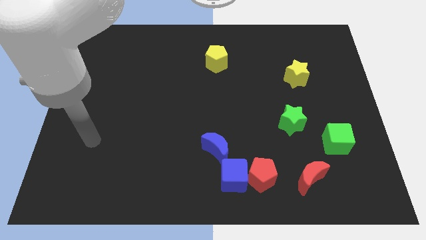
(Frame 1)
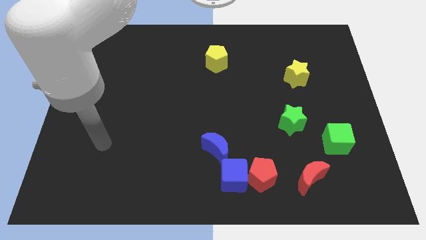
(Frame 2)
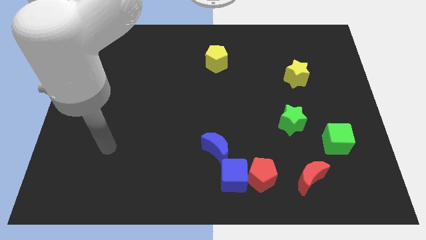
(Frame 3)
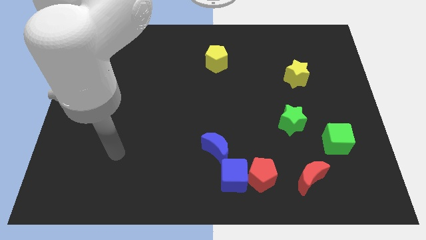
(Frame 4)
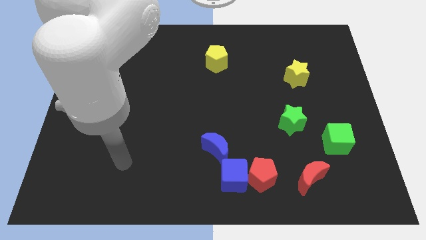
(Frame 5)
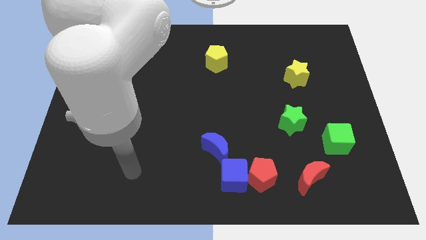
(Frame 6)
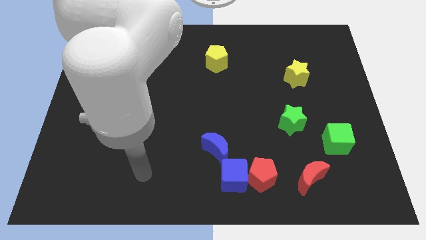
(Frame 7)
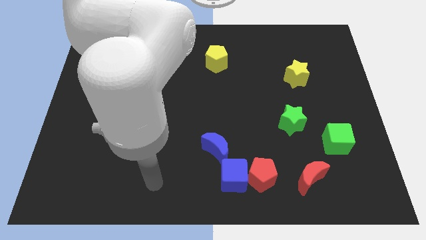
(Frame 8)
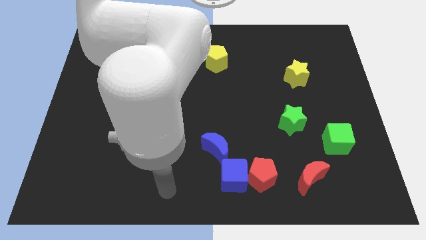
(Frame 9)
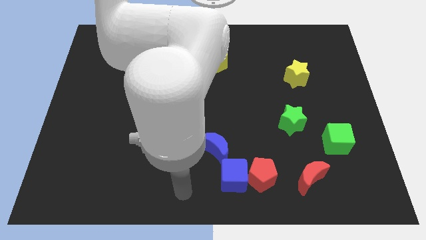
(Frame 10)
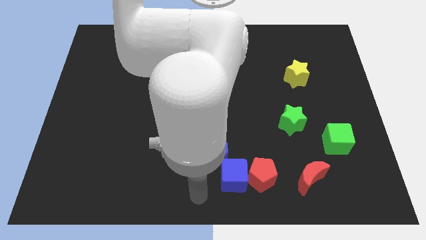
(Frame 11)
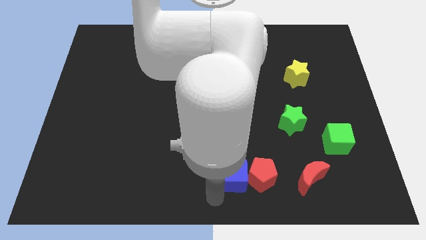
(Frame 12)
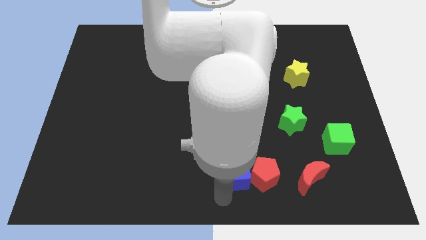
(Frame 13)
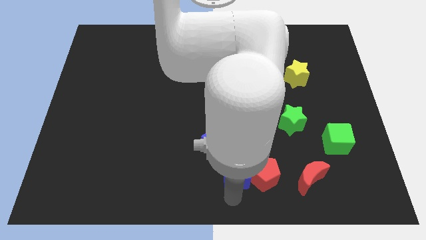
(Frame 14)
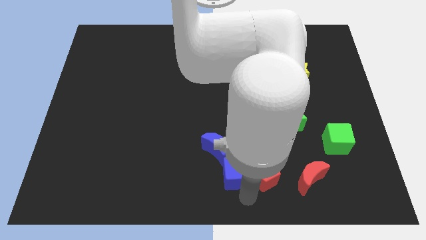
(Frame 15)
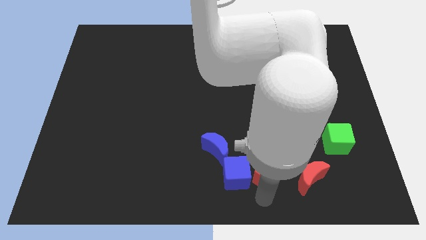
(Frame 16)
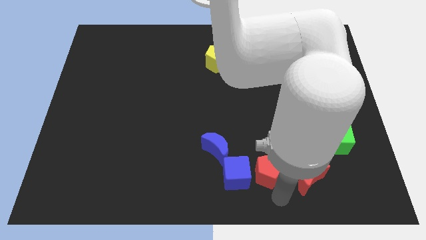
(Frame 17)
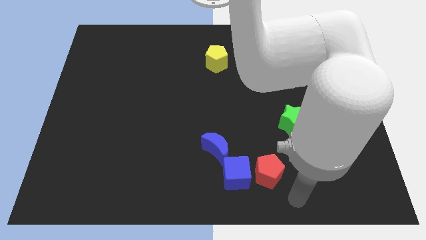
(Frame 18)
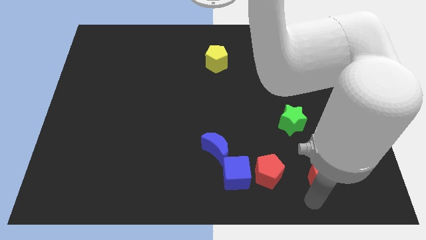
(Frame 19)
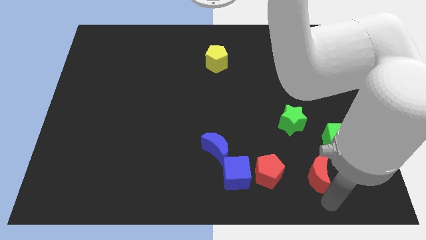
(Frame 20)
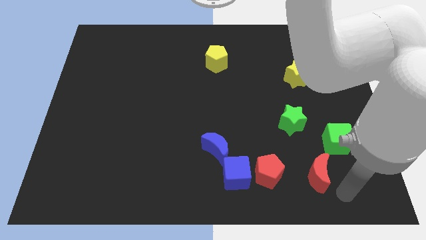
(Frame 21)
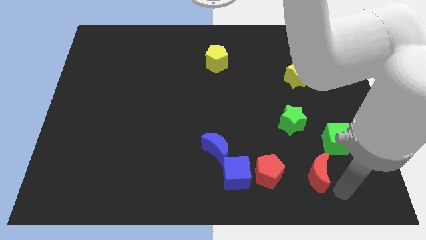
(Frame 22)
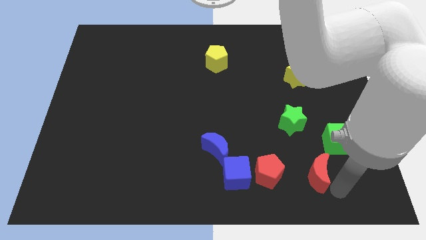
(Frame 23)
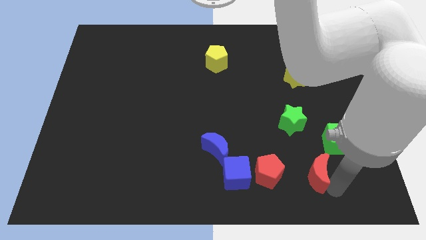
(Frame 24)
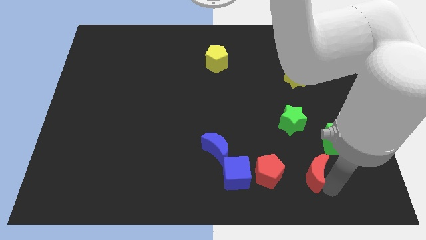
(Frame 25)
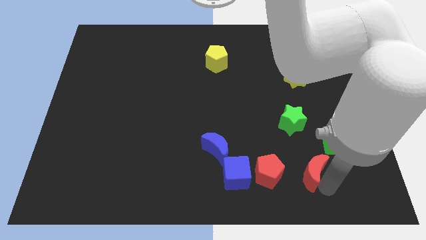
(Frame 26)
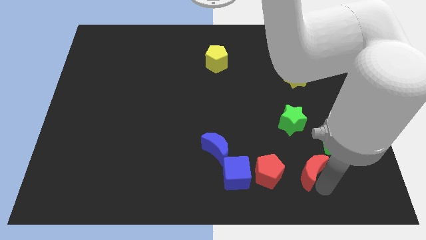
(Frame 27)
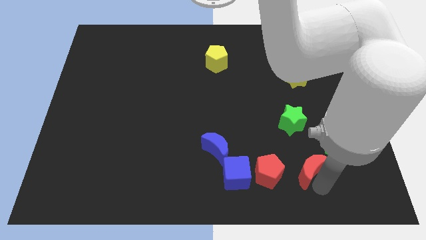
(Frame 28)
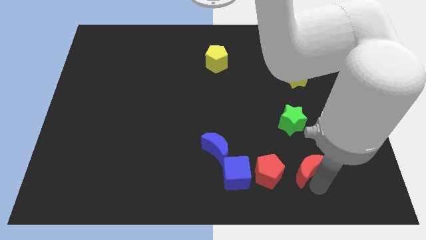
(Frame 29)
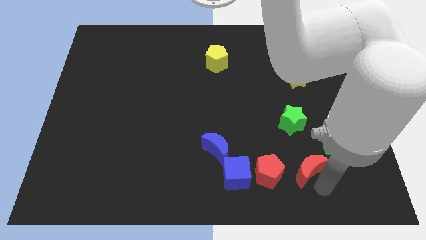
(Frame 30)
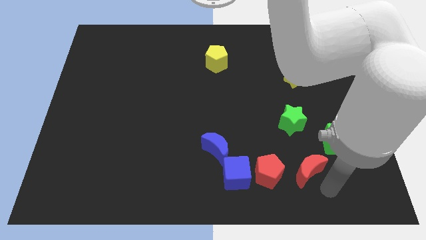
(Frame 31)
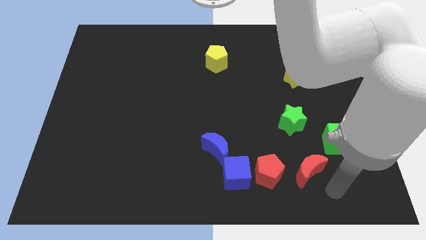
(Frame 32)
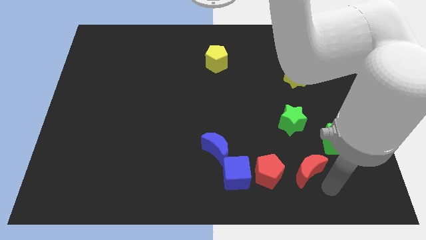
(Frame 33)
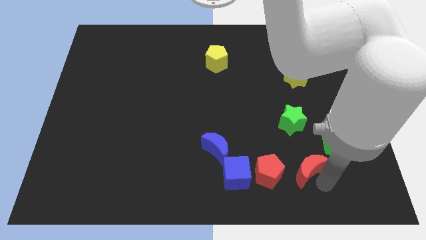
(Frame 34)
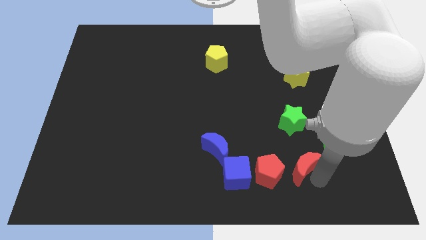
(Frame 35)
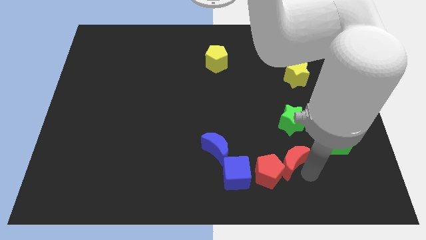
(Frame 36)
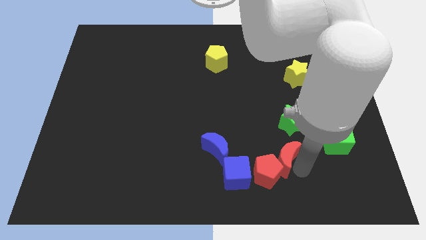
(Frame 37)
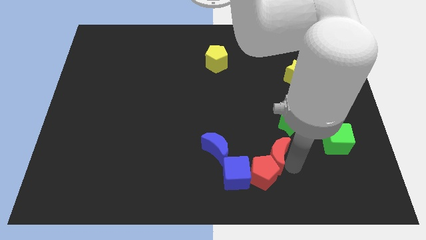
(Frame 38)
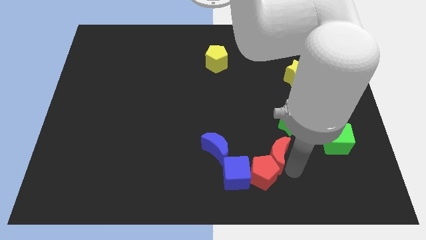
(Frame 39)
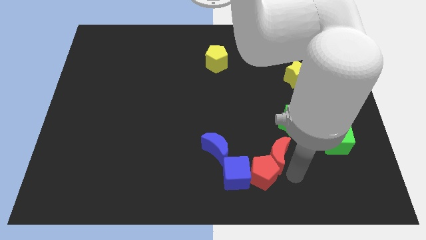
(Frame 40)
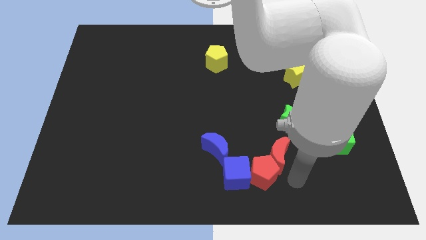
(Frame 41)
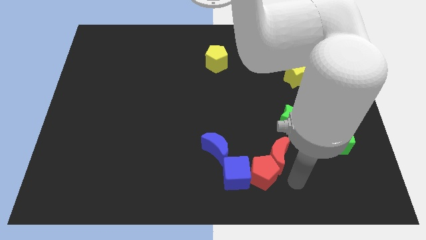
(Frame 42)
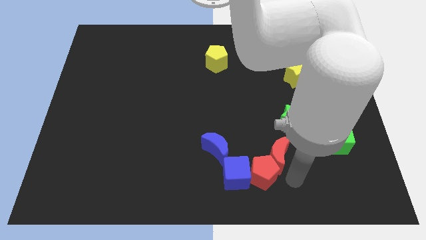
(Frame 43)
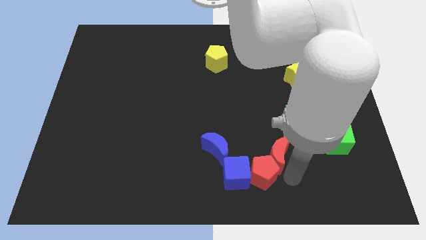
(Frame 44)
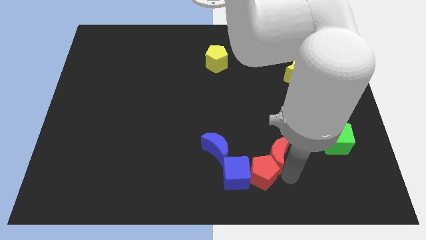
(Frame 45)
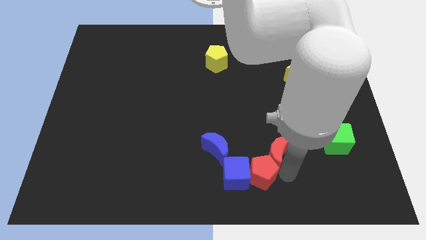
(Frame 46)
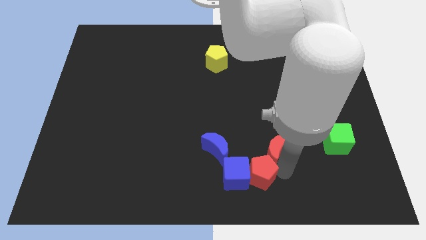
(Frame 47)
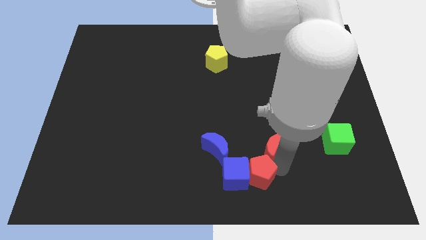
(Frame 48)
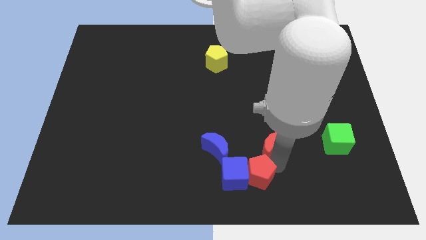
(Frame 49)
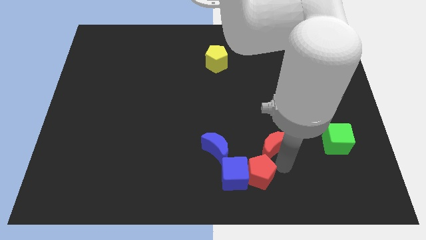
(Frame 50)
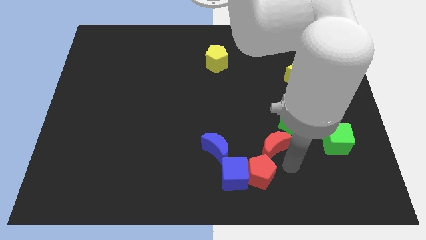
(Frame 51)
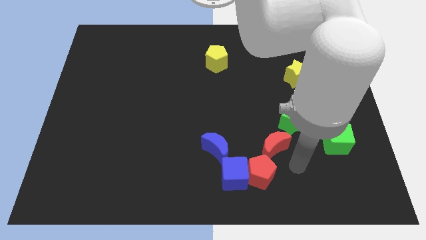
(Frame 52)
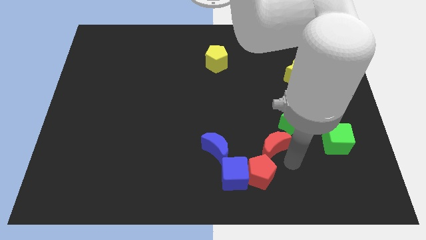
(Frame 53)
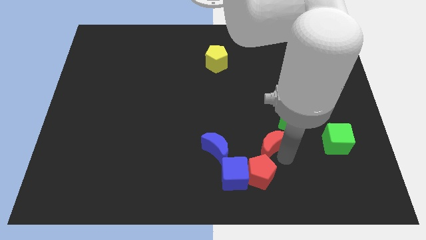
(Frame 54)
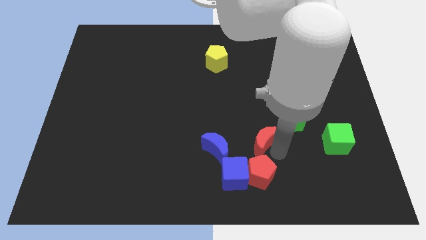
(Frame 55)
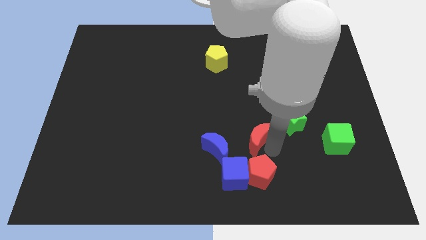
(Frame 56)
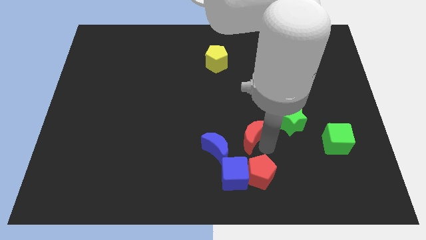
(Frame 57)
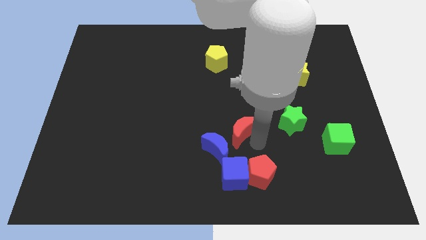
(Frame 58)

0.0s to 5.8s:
slide the red moon to the center

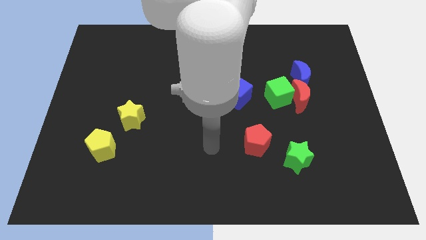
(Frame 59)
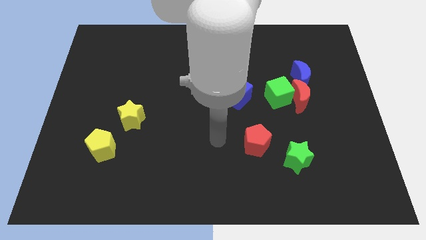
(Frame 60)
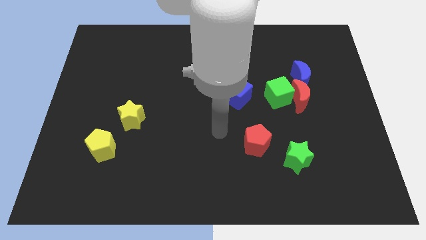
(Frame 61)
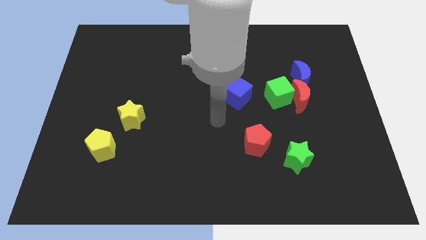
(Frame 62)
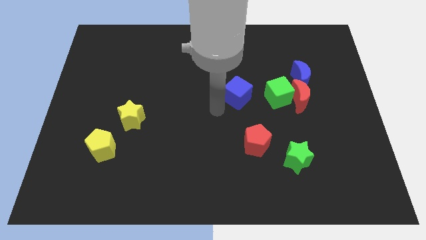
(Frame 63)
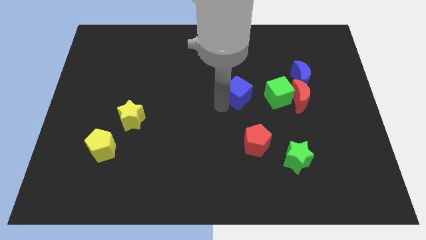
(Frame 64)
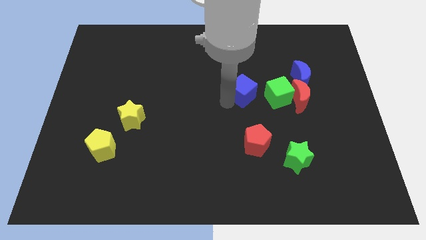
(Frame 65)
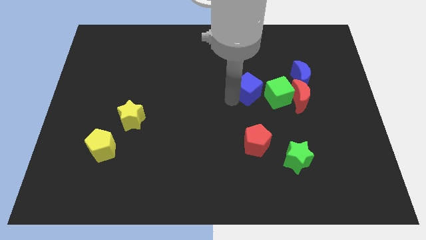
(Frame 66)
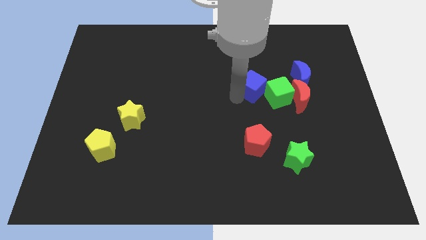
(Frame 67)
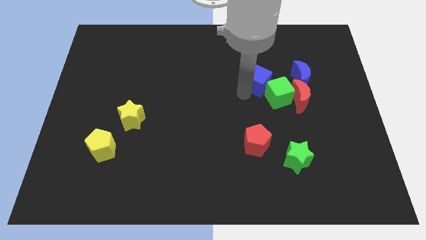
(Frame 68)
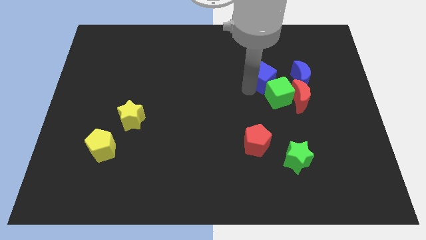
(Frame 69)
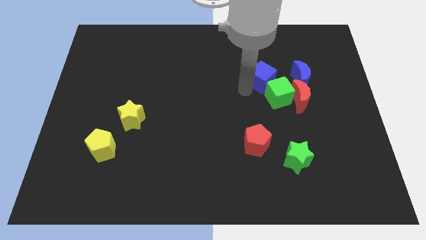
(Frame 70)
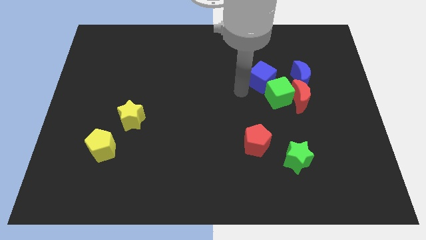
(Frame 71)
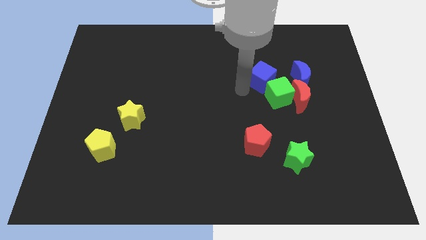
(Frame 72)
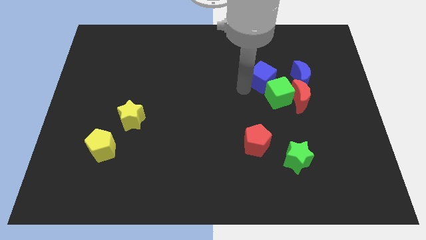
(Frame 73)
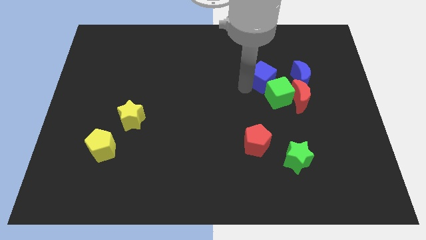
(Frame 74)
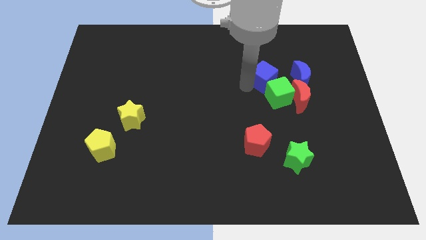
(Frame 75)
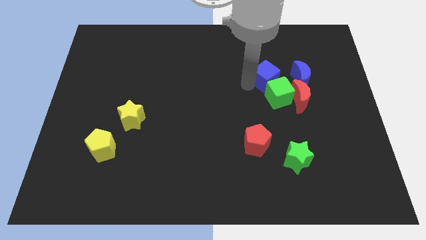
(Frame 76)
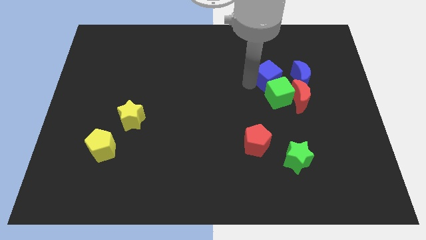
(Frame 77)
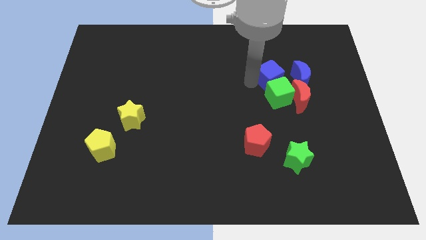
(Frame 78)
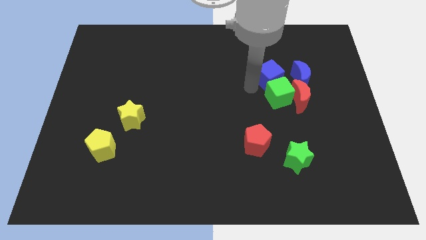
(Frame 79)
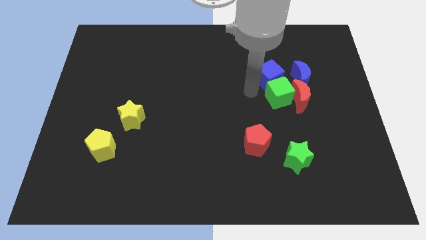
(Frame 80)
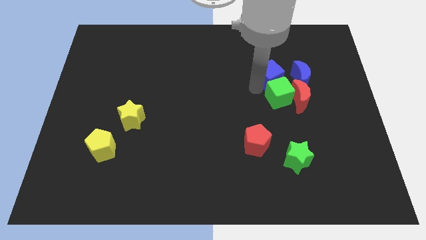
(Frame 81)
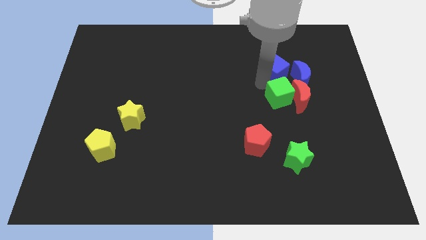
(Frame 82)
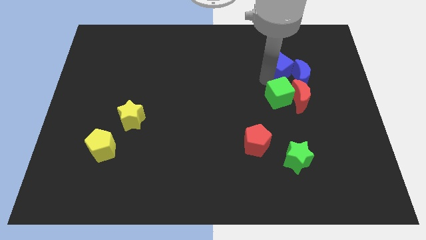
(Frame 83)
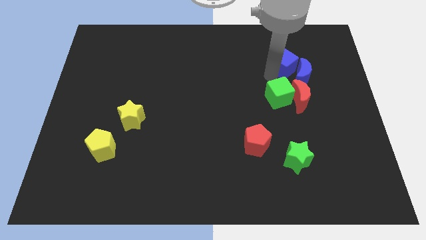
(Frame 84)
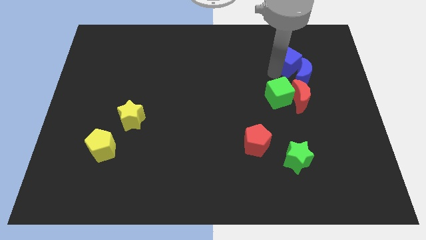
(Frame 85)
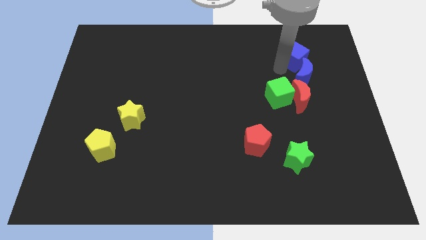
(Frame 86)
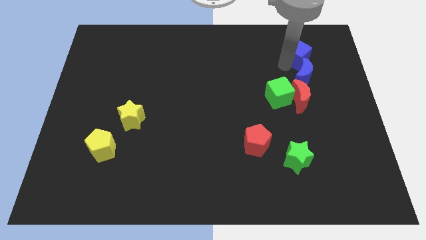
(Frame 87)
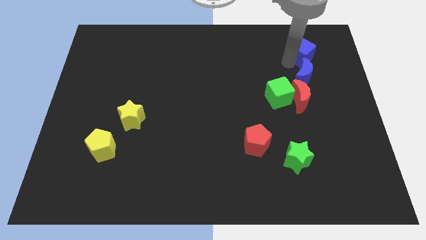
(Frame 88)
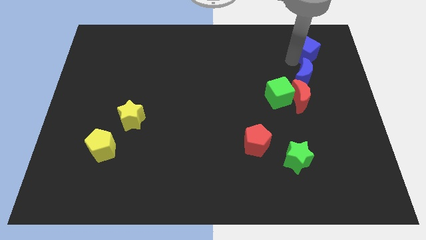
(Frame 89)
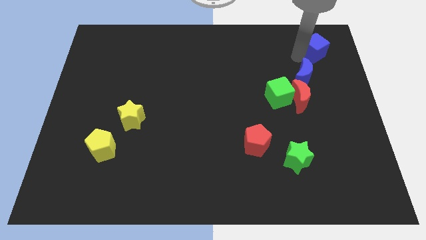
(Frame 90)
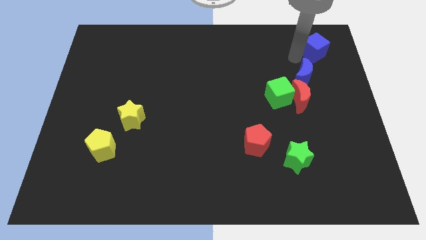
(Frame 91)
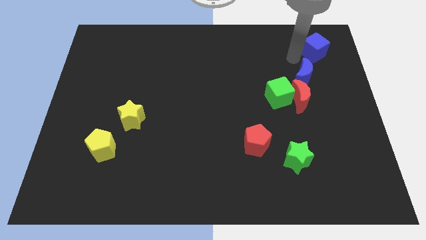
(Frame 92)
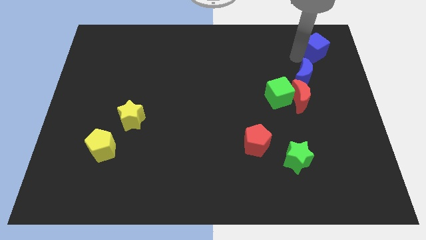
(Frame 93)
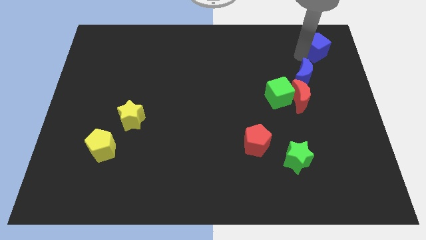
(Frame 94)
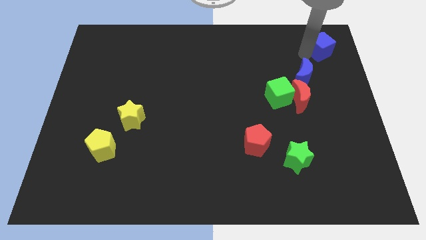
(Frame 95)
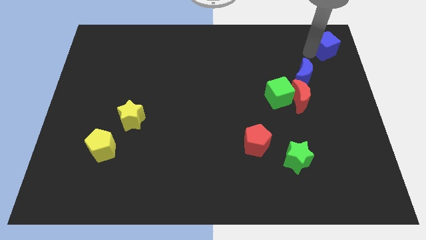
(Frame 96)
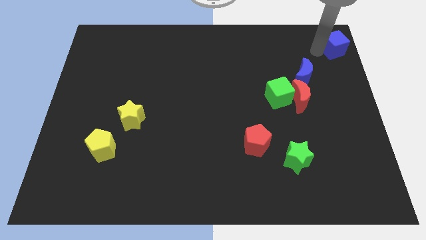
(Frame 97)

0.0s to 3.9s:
move the blue cube to the top right
